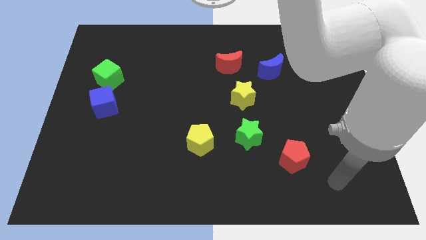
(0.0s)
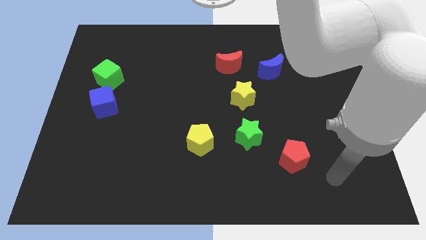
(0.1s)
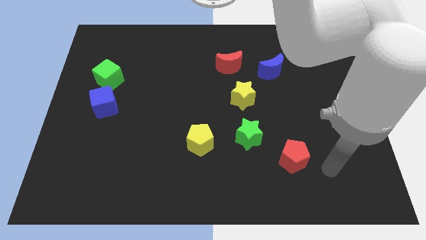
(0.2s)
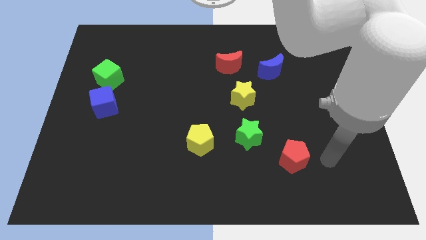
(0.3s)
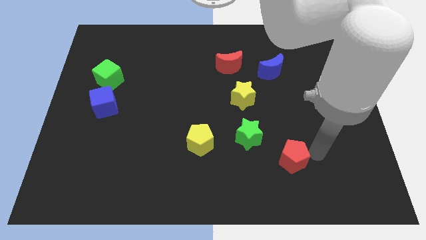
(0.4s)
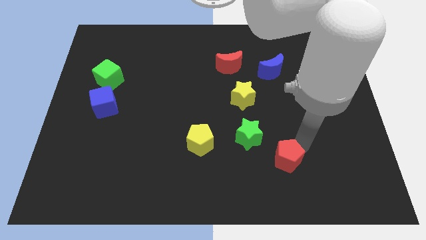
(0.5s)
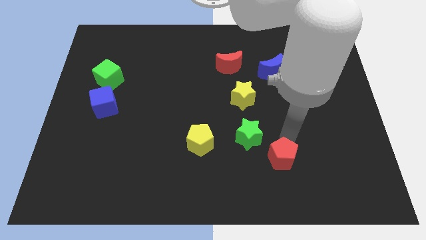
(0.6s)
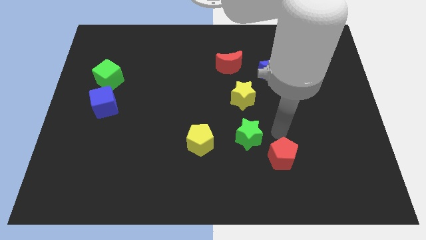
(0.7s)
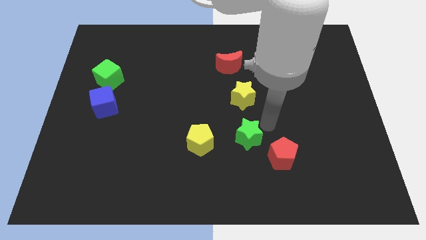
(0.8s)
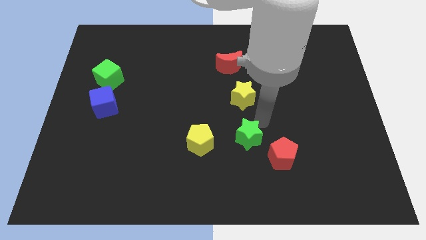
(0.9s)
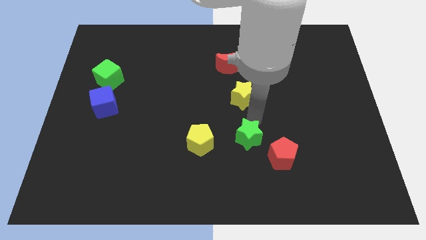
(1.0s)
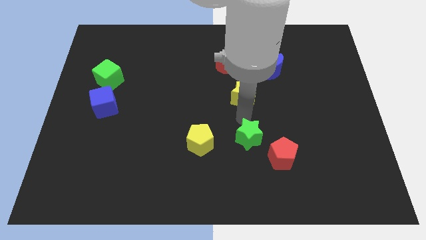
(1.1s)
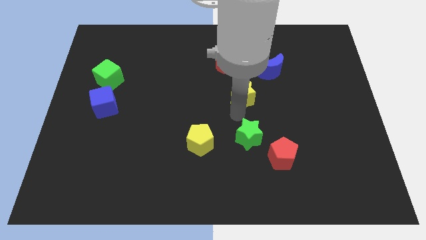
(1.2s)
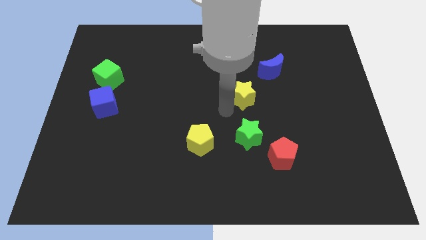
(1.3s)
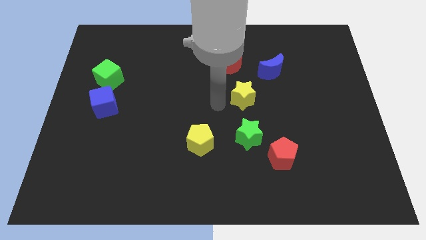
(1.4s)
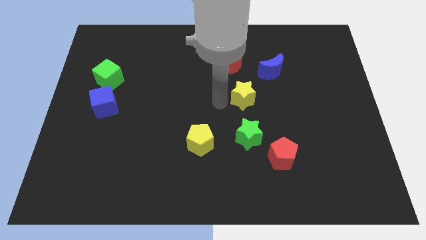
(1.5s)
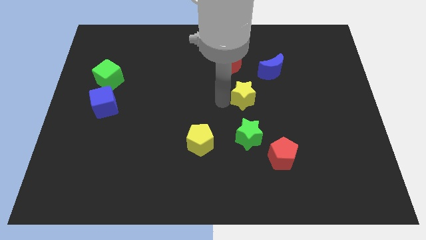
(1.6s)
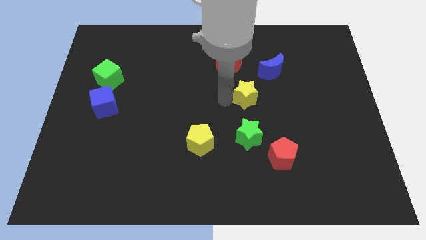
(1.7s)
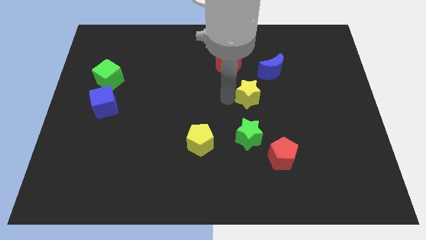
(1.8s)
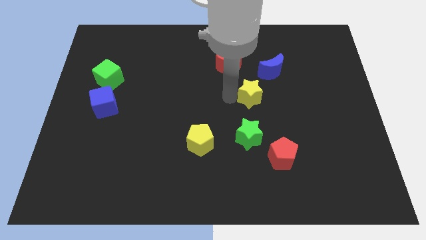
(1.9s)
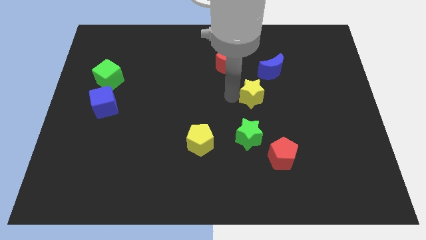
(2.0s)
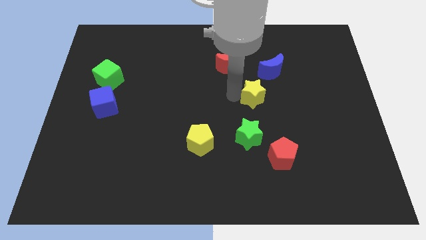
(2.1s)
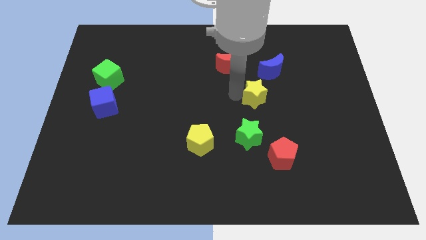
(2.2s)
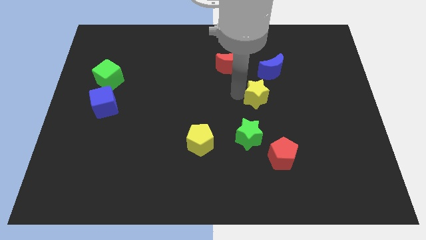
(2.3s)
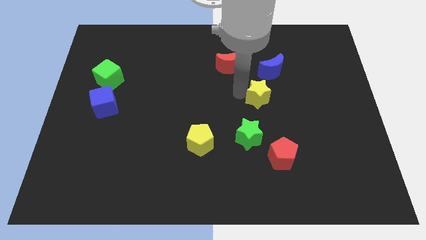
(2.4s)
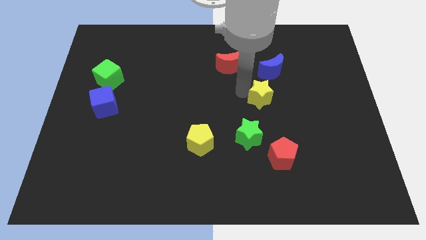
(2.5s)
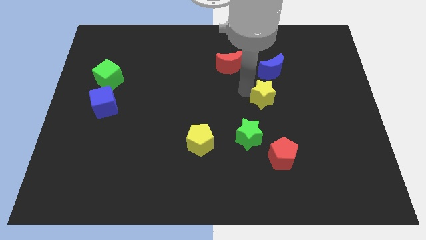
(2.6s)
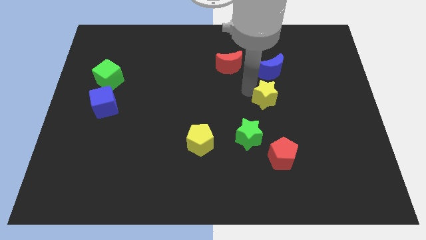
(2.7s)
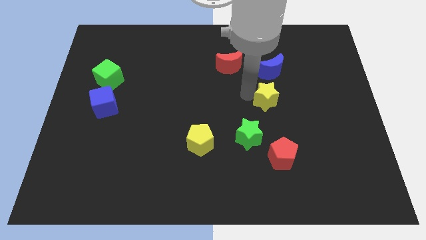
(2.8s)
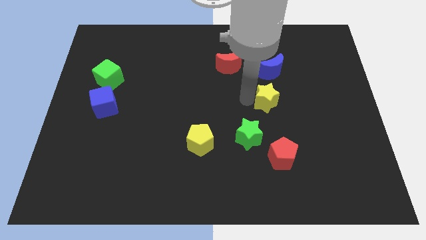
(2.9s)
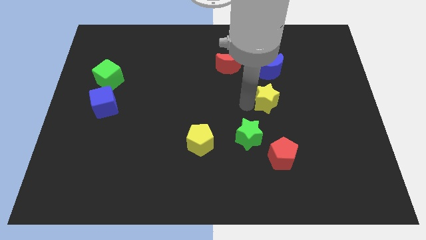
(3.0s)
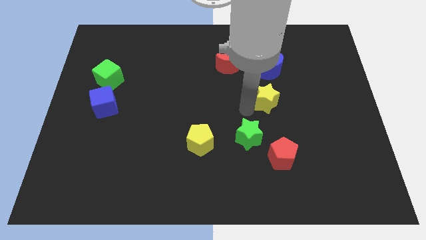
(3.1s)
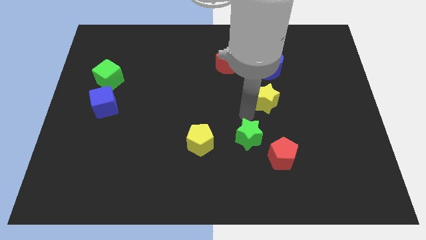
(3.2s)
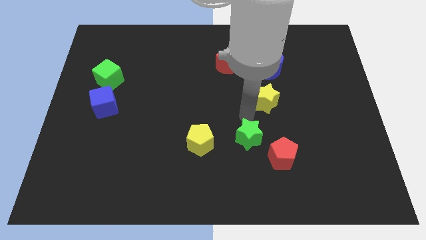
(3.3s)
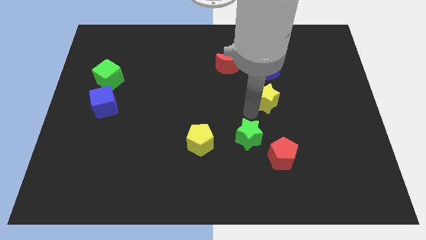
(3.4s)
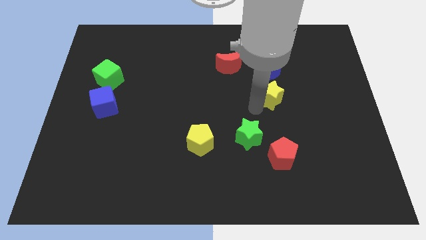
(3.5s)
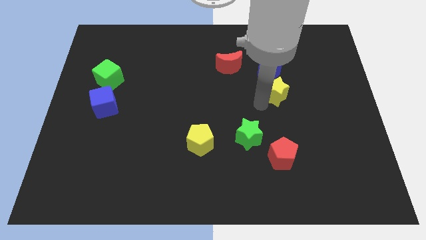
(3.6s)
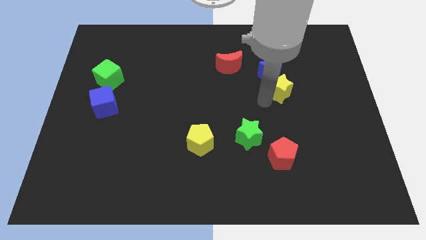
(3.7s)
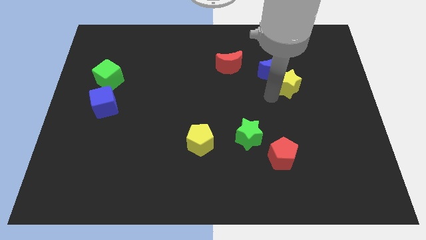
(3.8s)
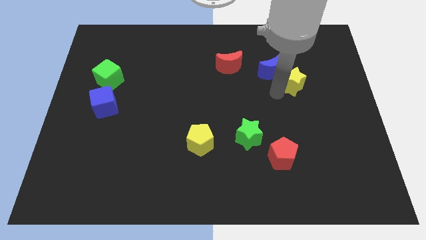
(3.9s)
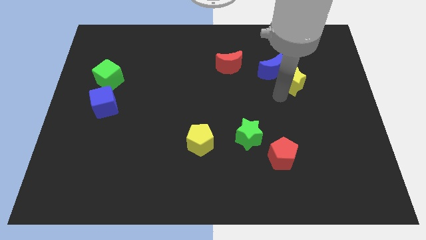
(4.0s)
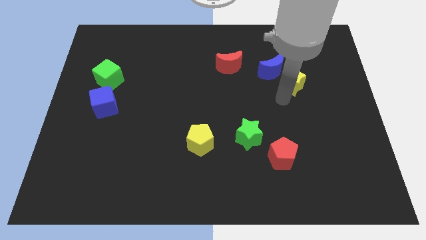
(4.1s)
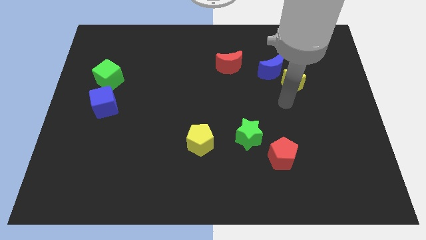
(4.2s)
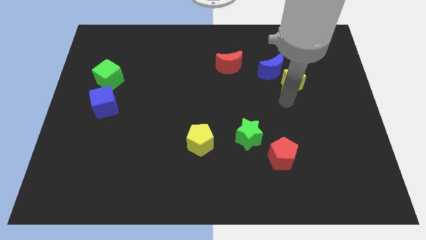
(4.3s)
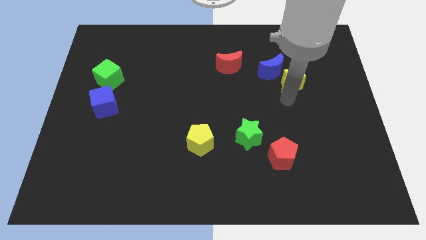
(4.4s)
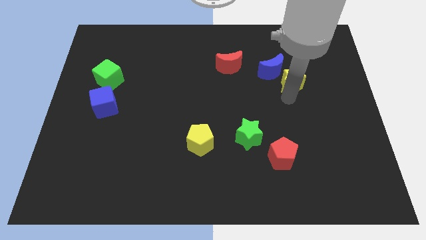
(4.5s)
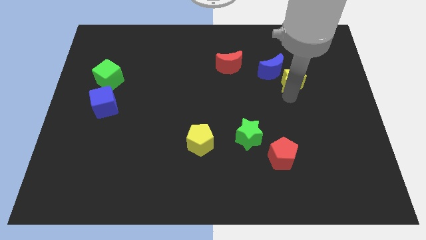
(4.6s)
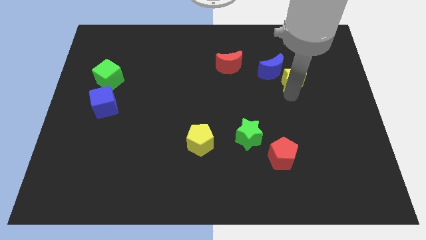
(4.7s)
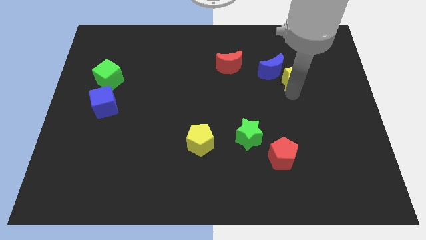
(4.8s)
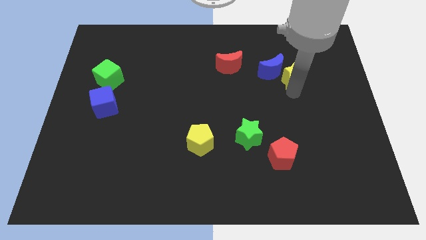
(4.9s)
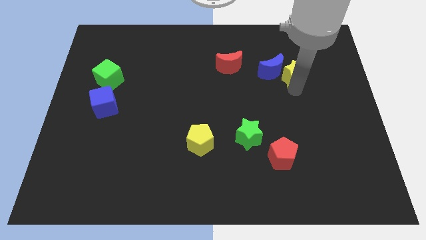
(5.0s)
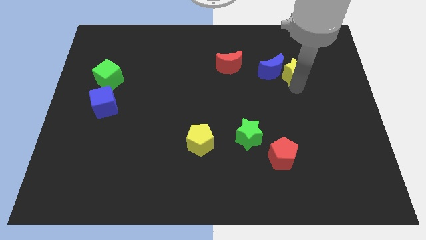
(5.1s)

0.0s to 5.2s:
put the yellow star diagonally up and to the right of the blue moon

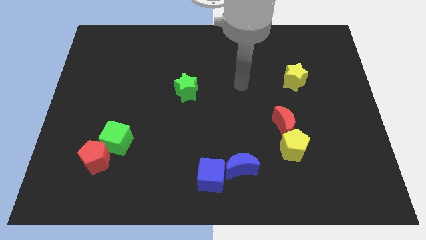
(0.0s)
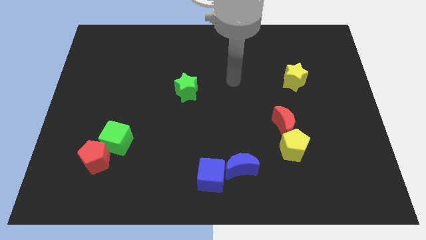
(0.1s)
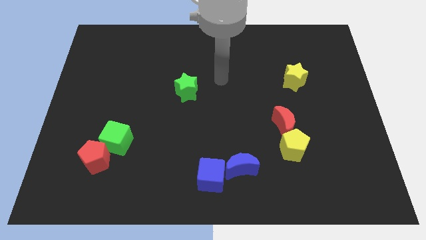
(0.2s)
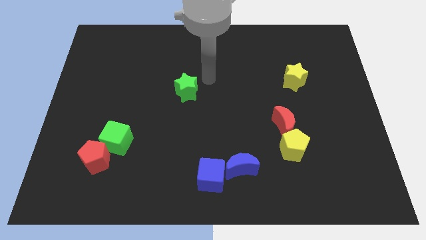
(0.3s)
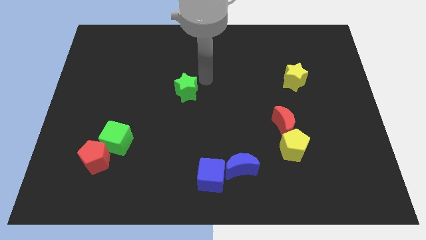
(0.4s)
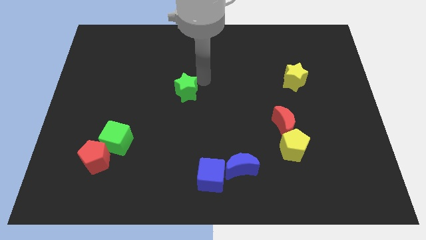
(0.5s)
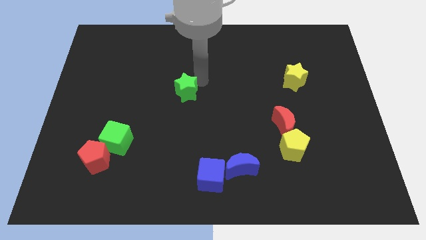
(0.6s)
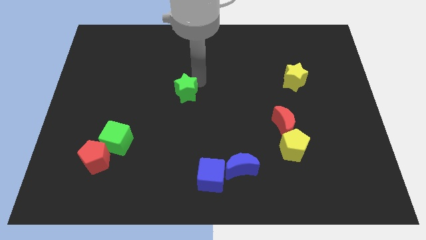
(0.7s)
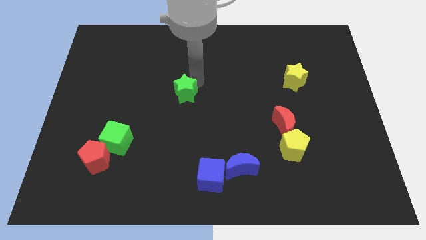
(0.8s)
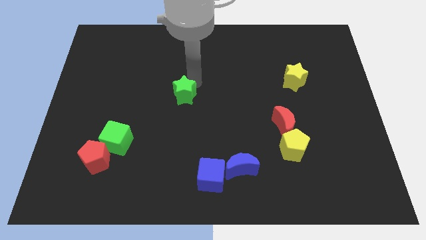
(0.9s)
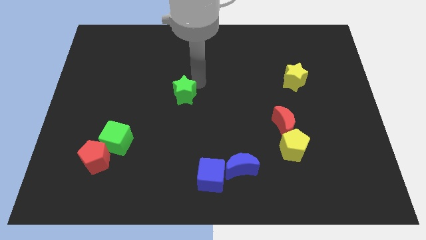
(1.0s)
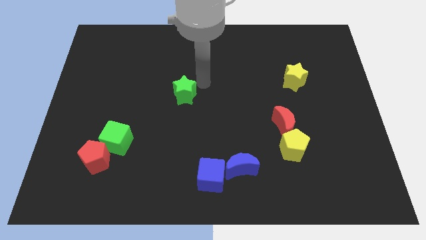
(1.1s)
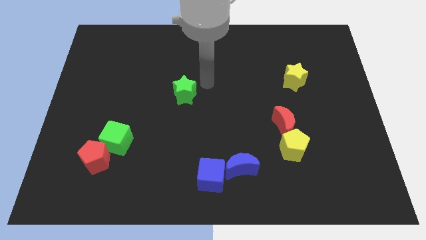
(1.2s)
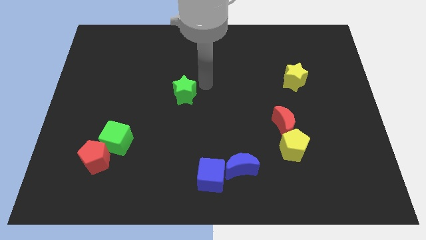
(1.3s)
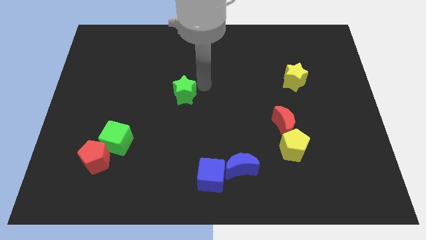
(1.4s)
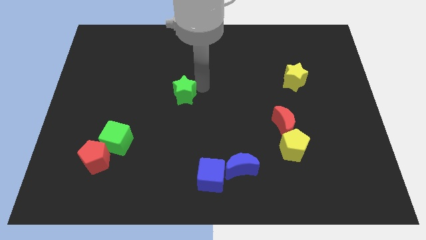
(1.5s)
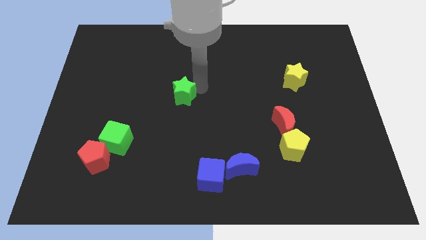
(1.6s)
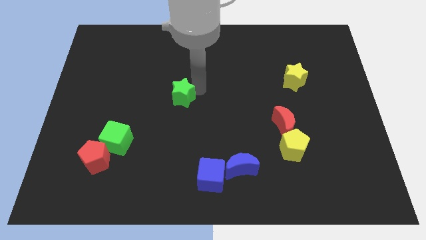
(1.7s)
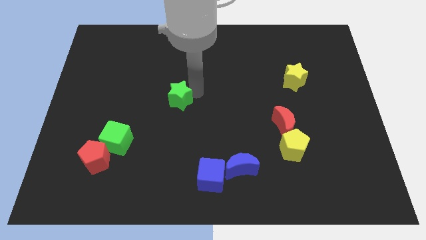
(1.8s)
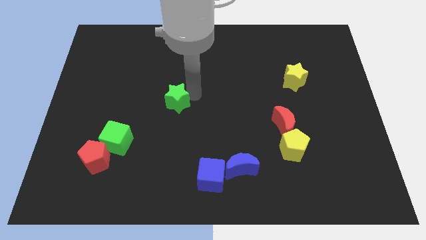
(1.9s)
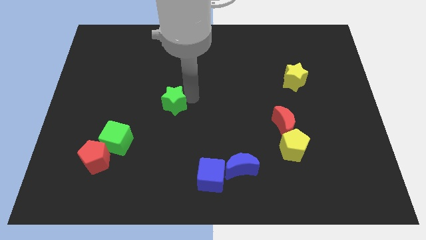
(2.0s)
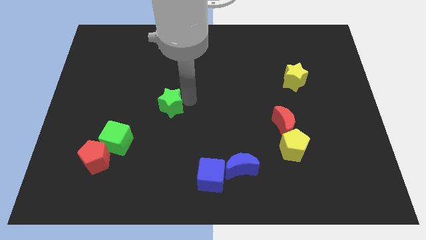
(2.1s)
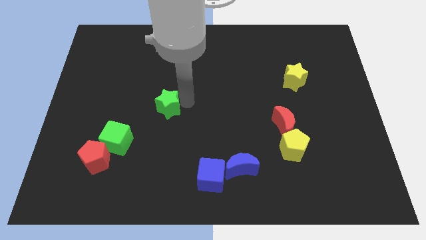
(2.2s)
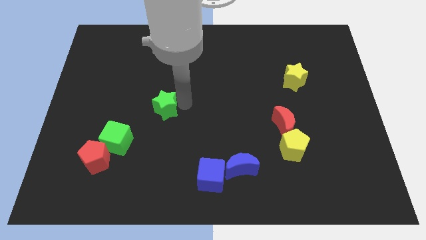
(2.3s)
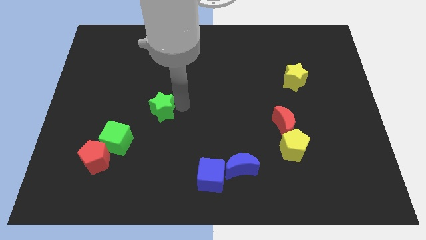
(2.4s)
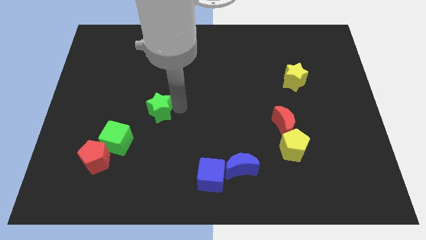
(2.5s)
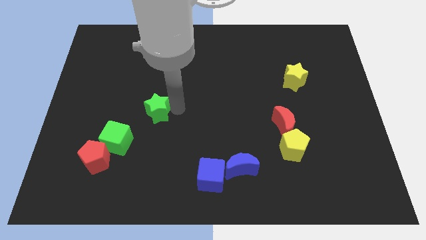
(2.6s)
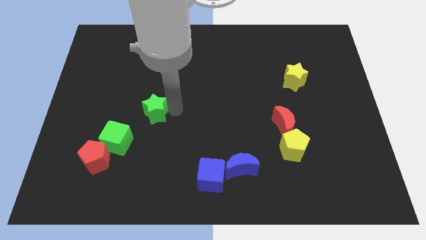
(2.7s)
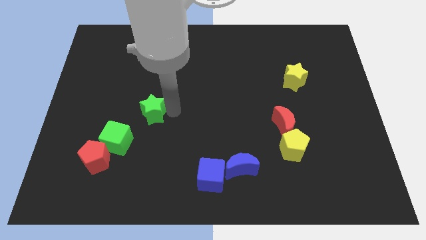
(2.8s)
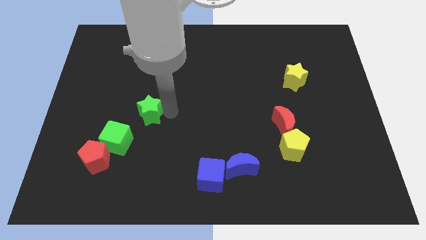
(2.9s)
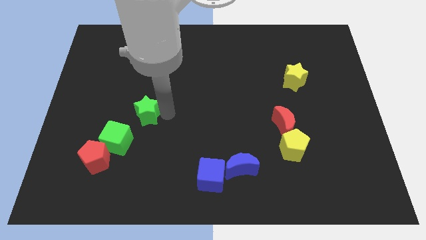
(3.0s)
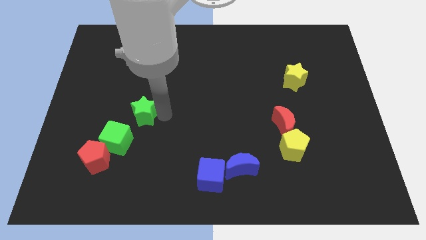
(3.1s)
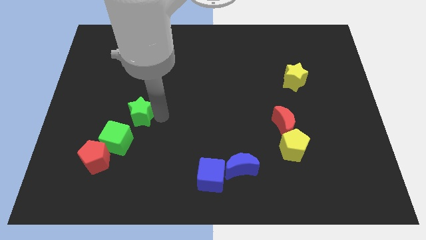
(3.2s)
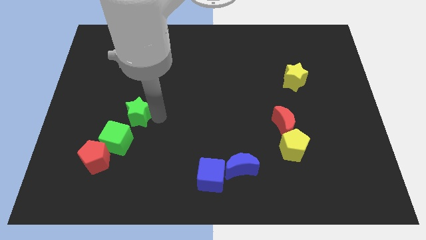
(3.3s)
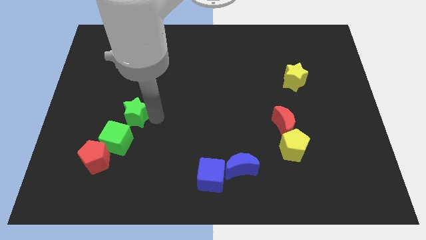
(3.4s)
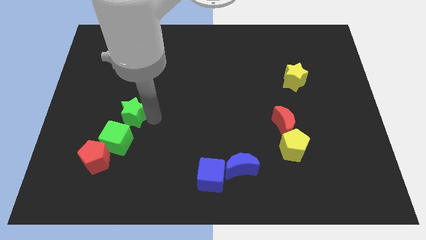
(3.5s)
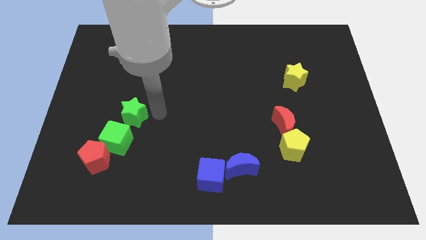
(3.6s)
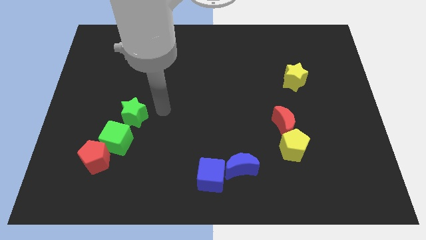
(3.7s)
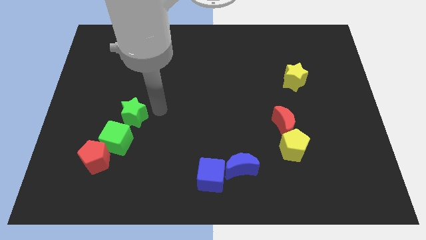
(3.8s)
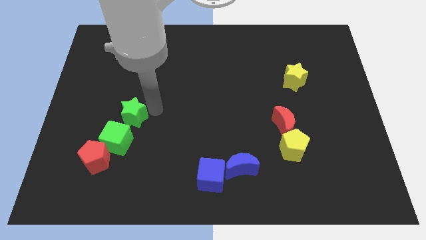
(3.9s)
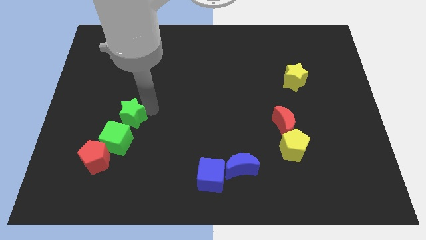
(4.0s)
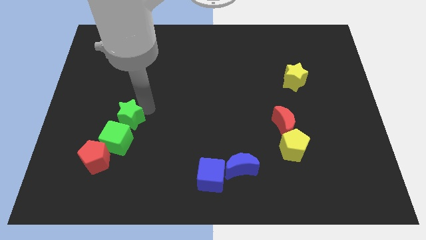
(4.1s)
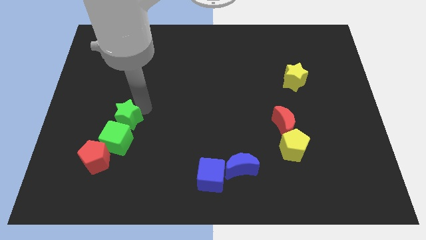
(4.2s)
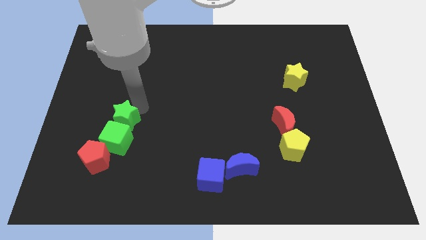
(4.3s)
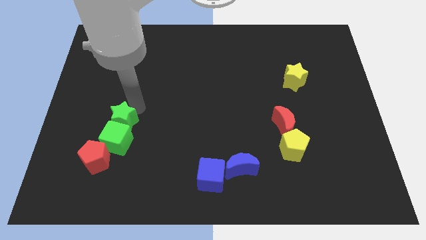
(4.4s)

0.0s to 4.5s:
push the green star to the top left of the green cube
